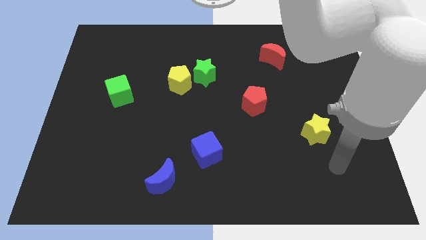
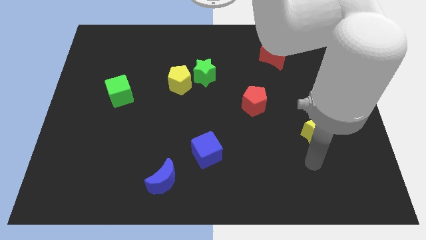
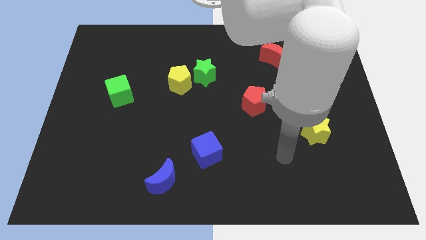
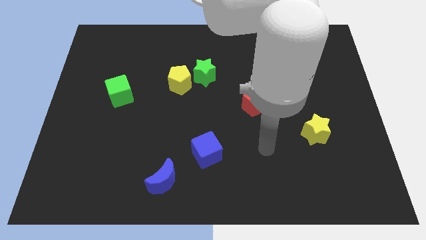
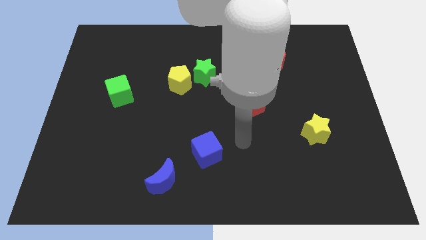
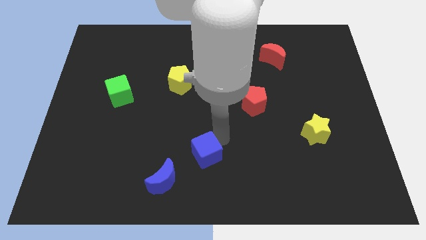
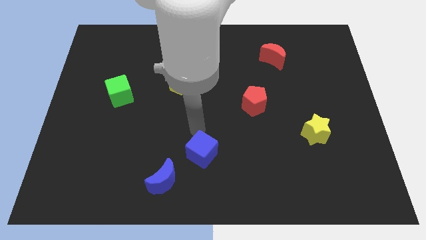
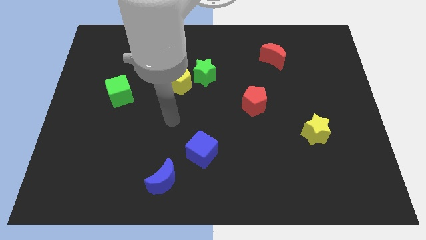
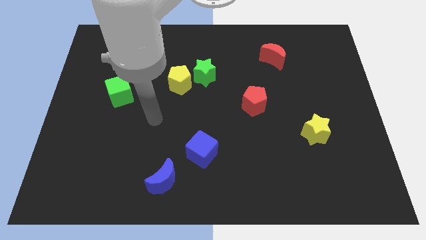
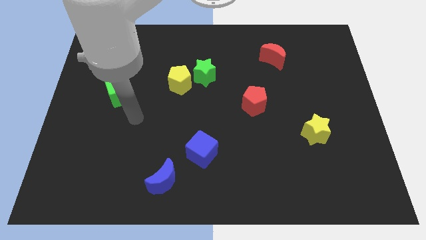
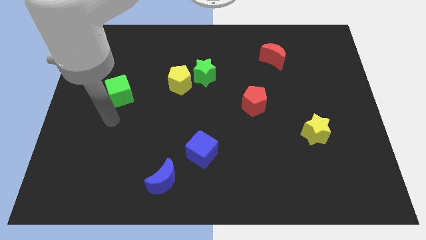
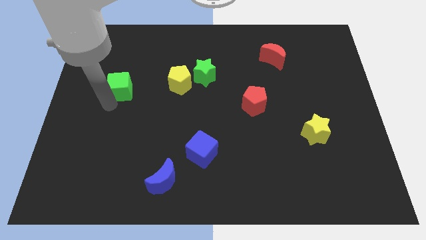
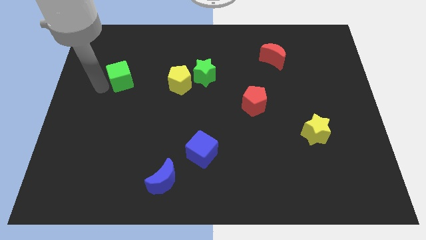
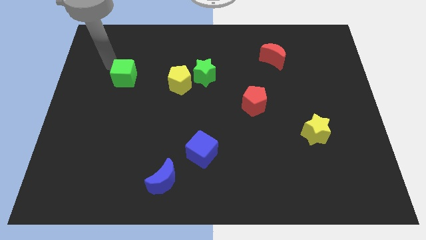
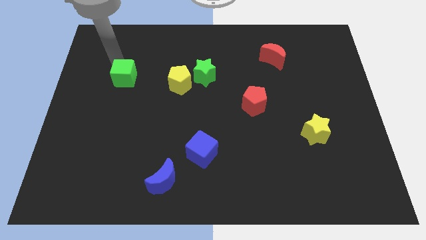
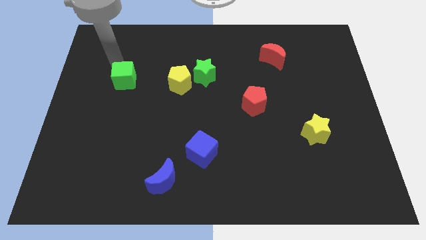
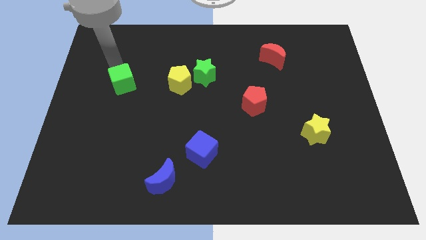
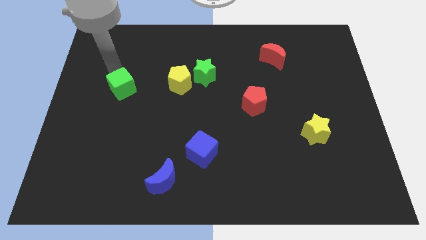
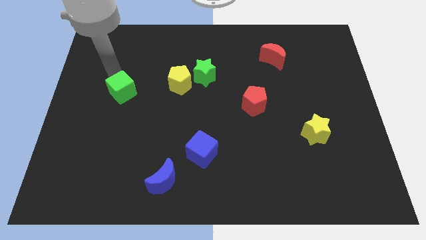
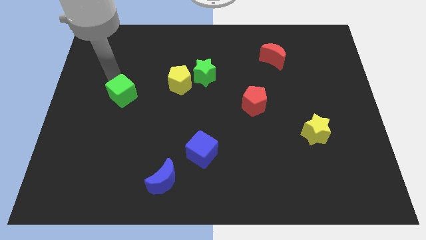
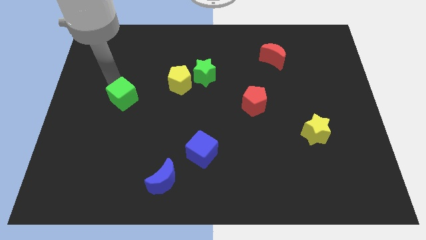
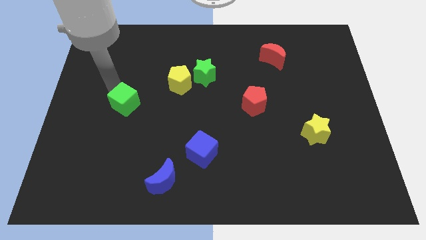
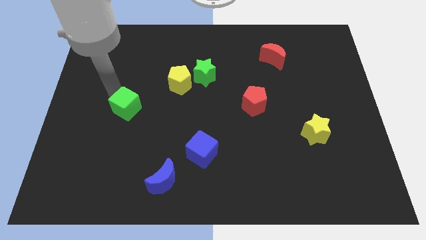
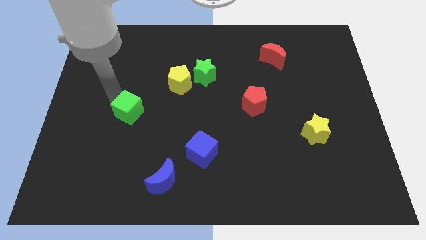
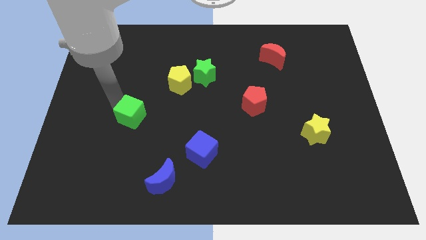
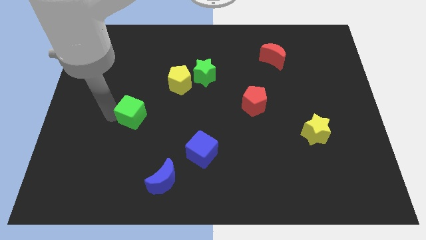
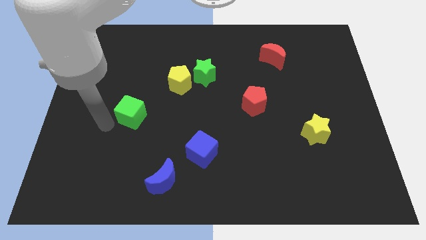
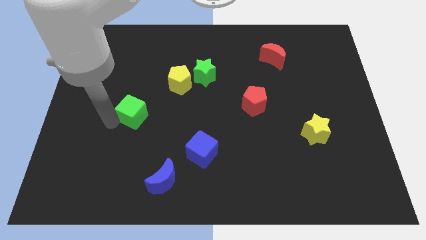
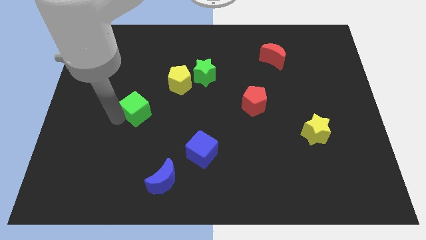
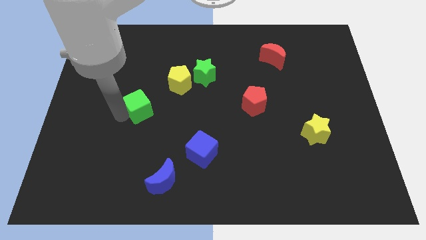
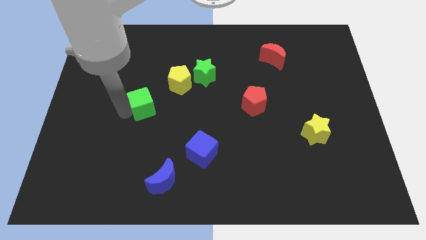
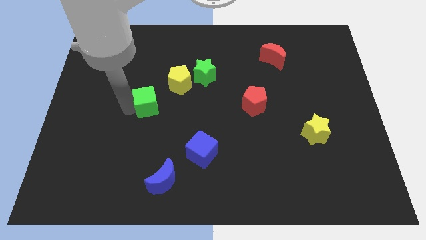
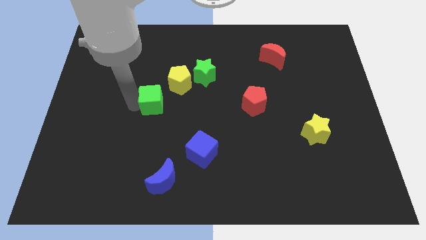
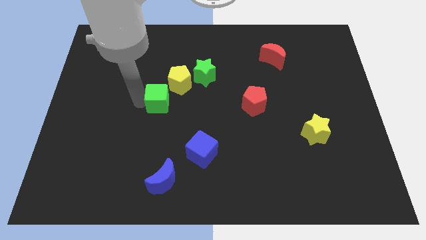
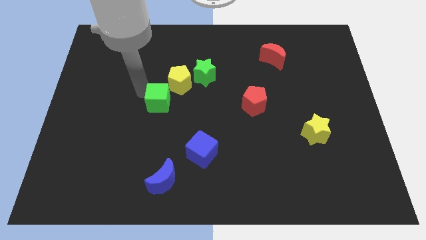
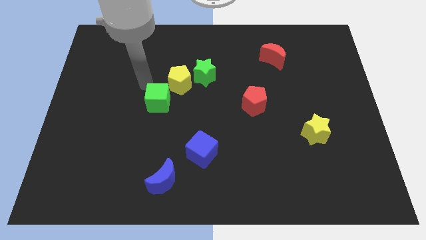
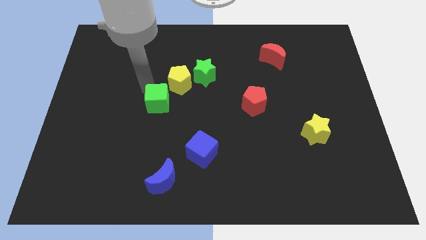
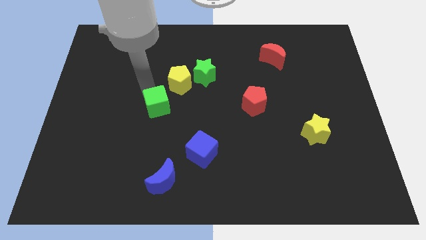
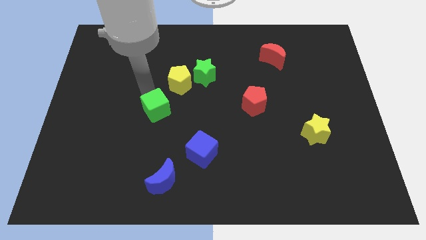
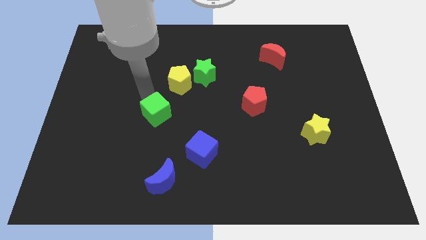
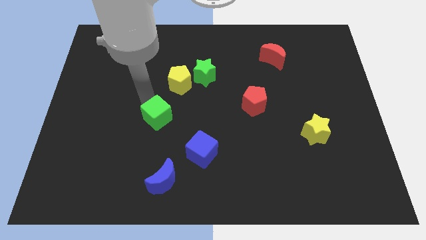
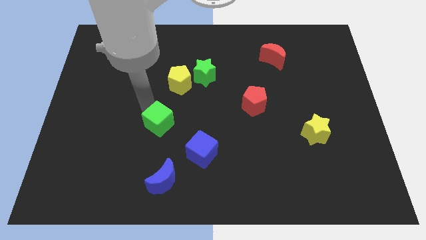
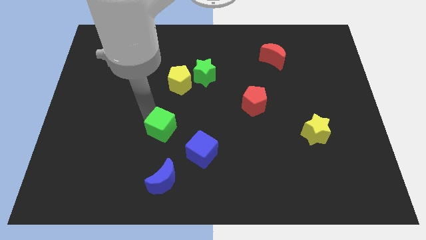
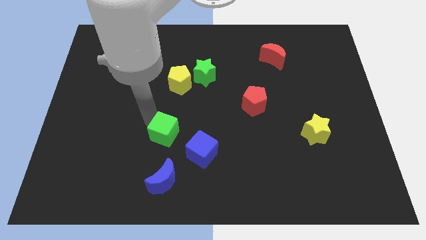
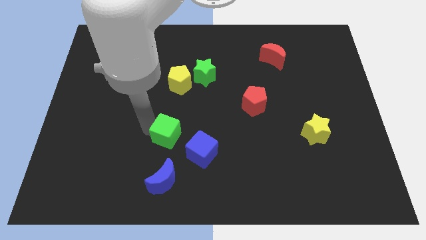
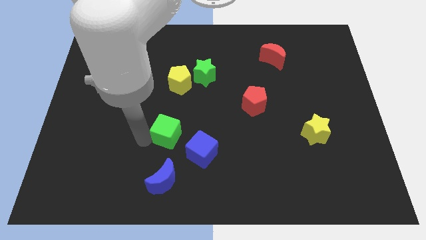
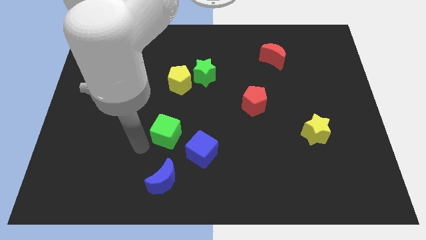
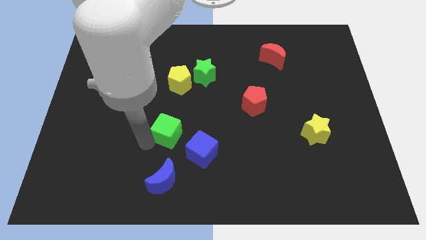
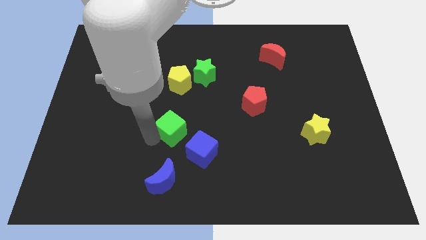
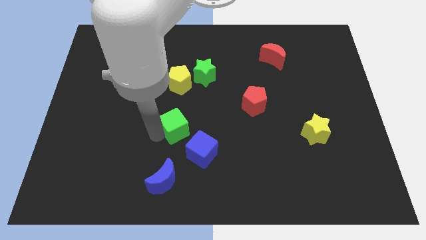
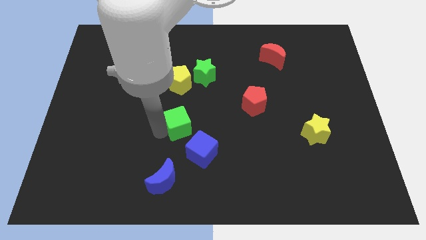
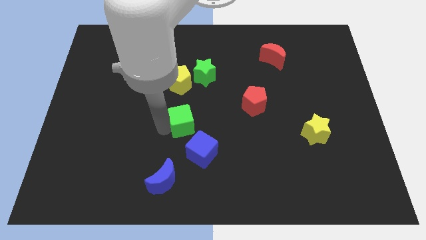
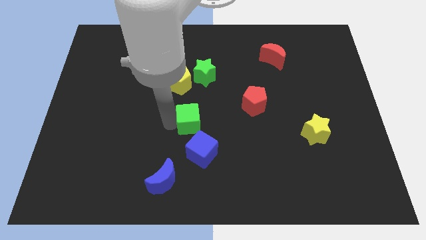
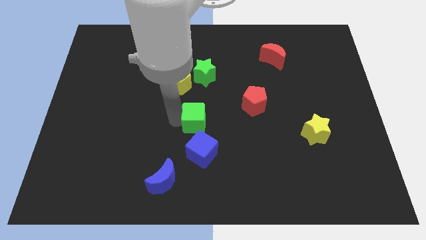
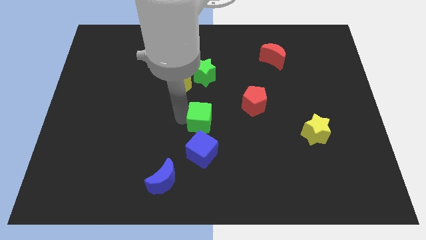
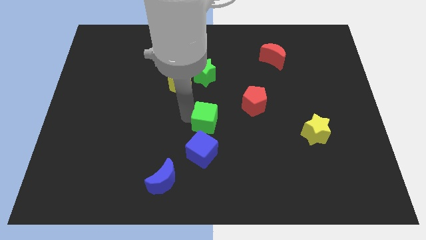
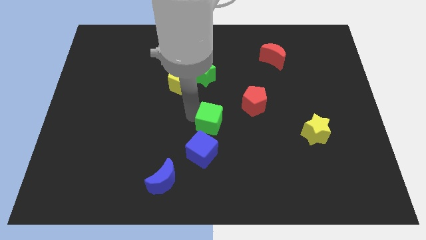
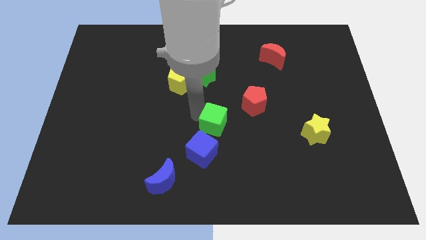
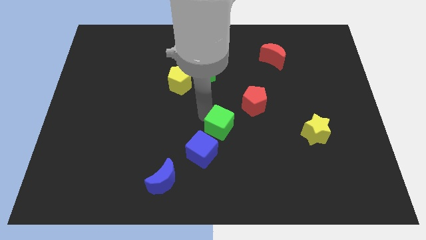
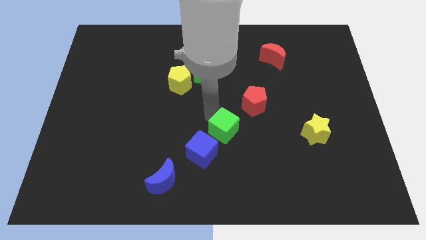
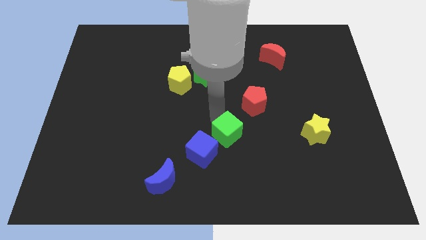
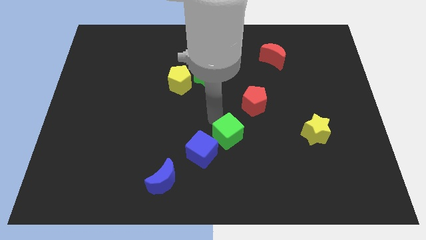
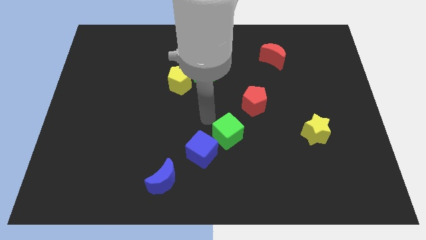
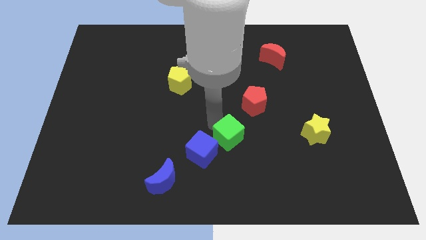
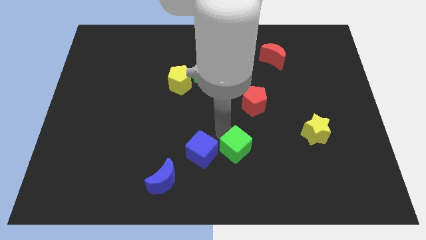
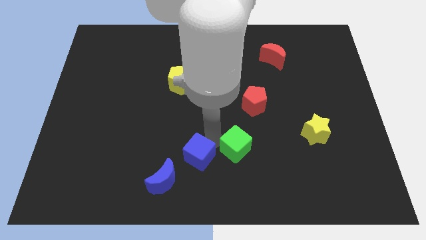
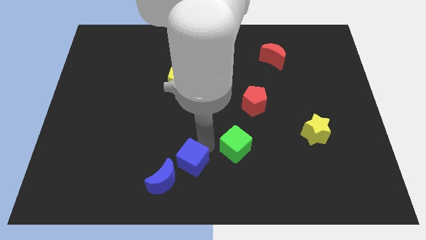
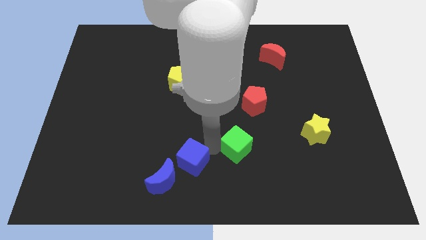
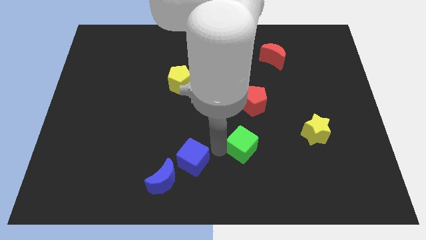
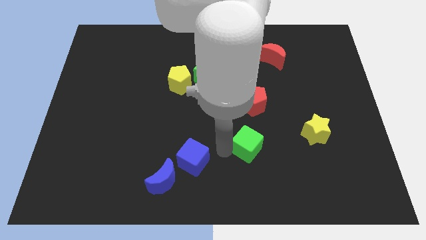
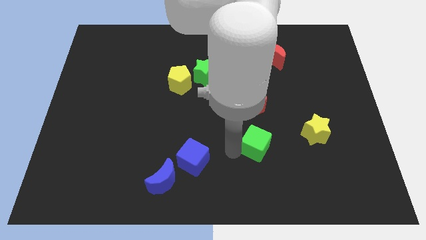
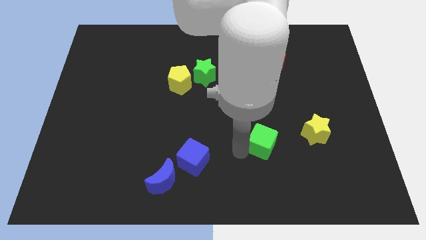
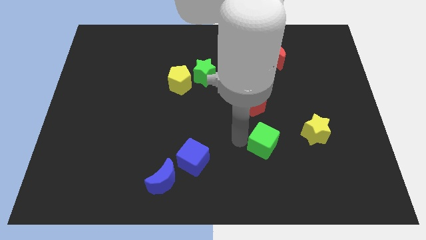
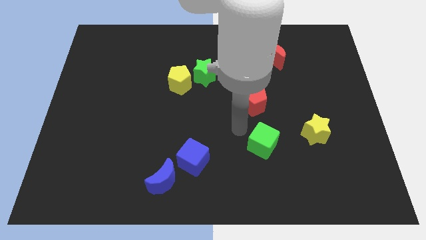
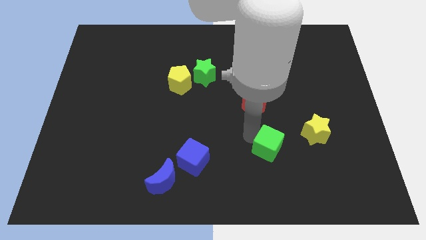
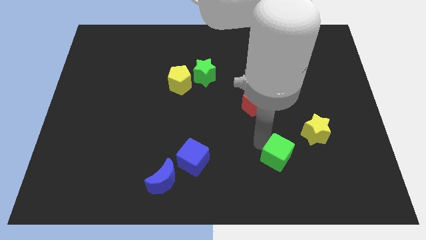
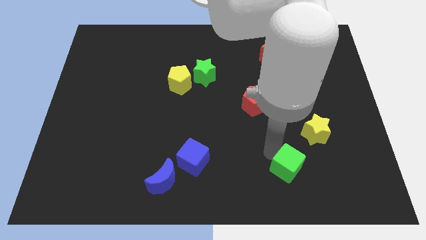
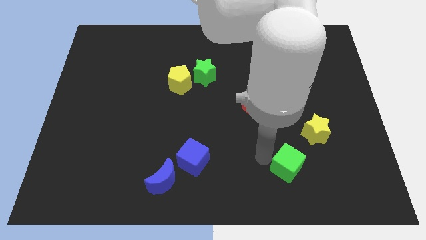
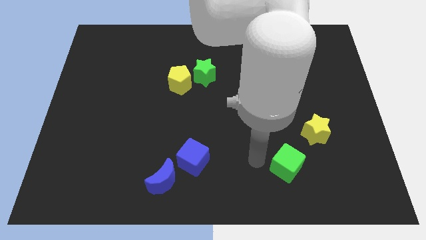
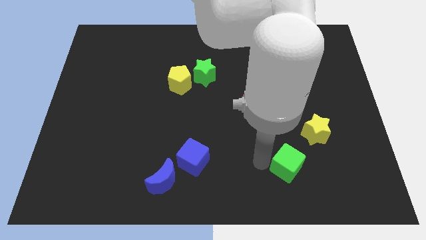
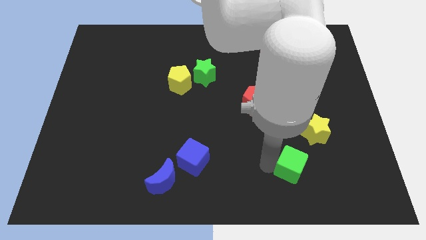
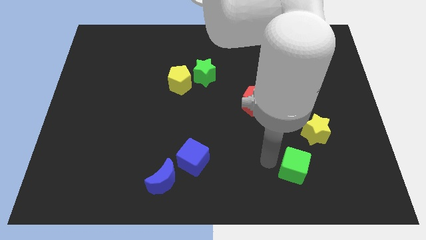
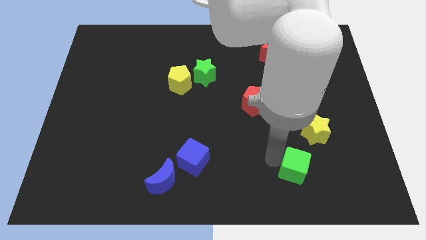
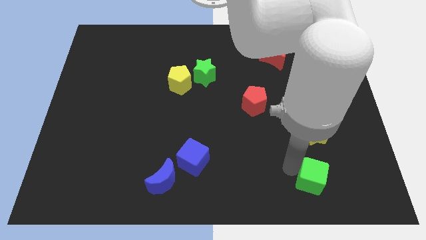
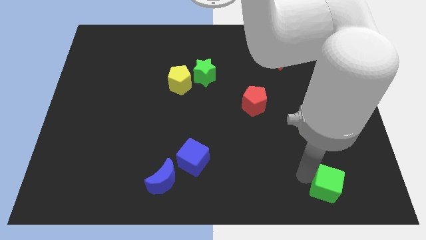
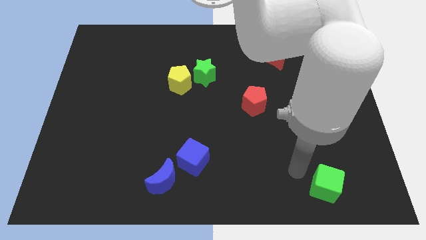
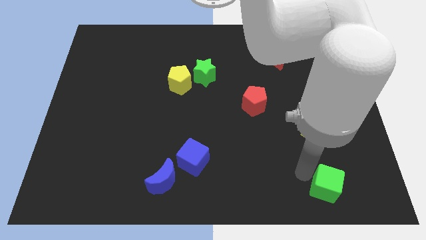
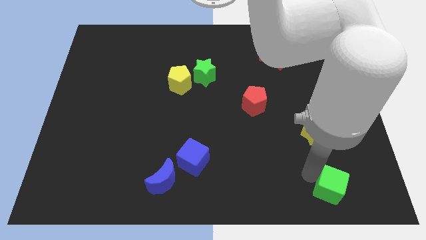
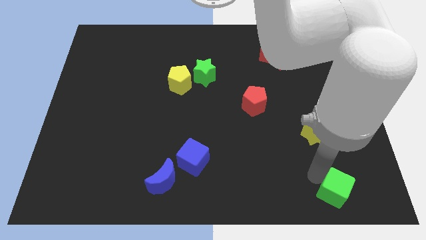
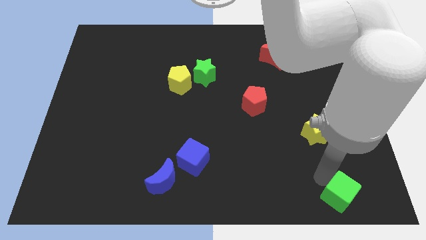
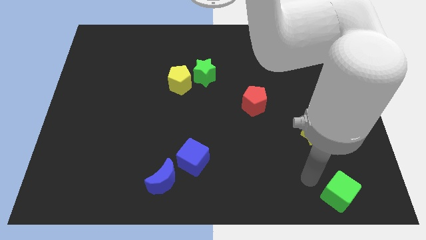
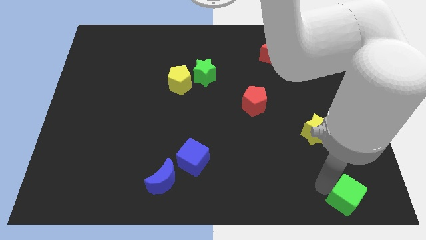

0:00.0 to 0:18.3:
slide the green cube to the bottom right corner
